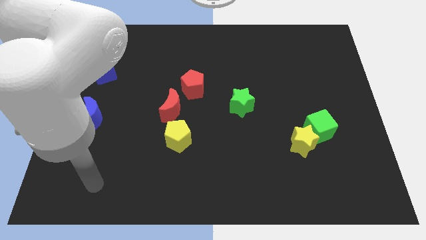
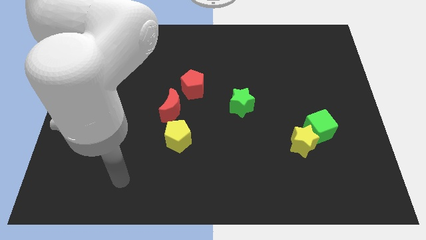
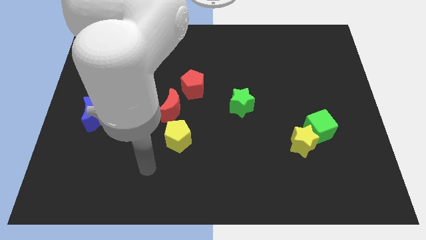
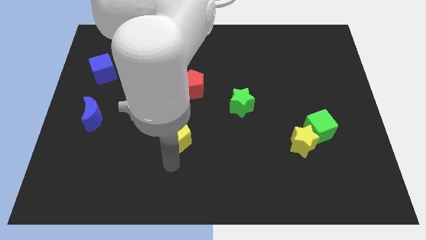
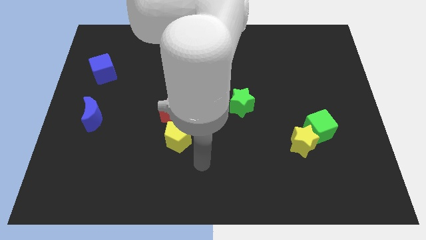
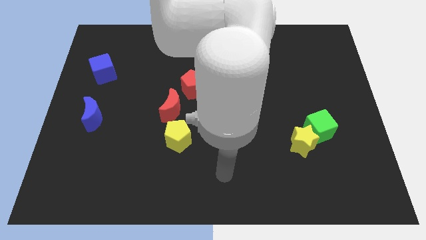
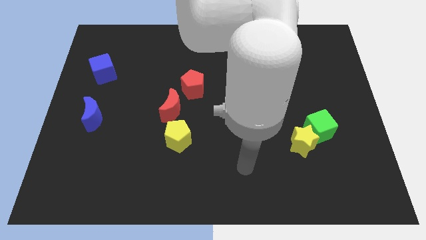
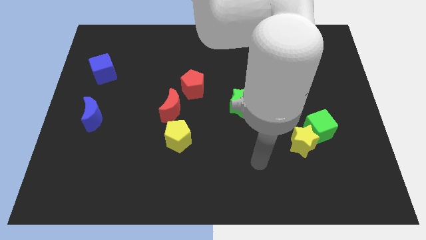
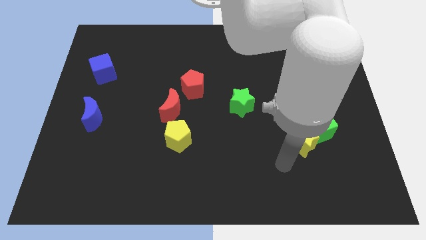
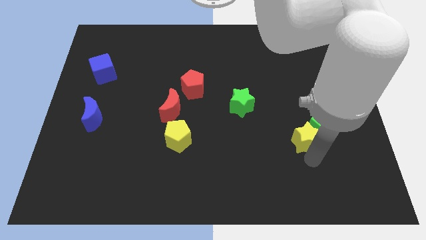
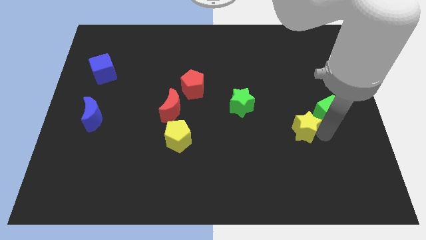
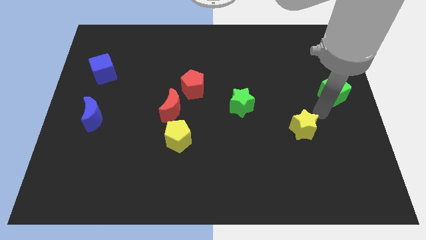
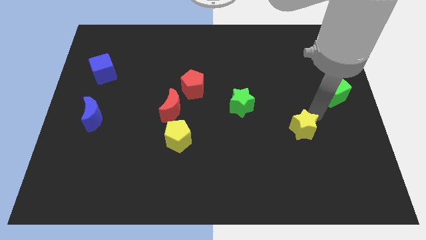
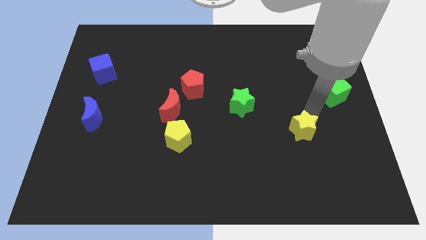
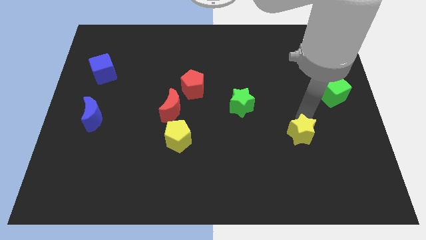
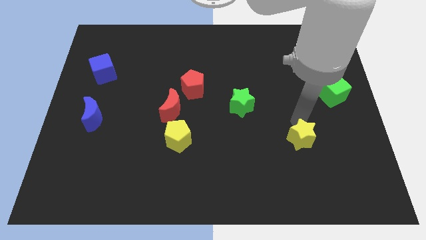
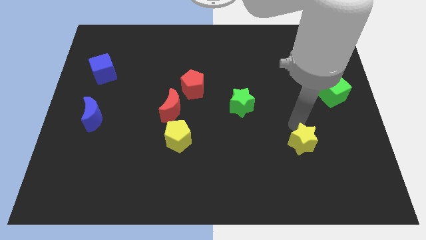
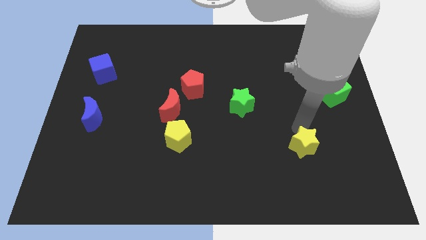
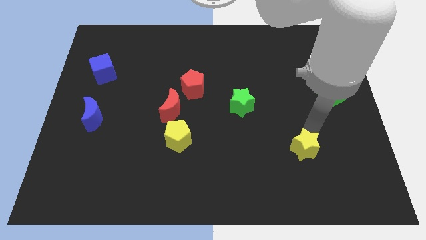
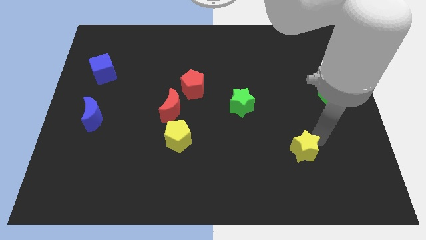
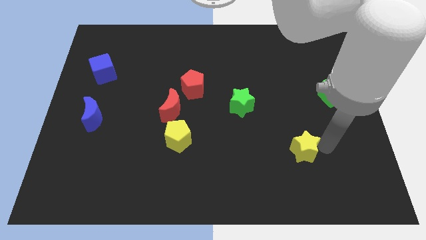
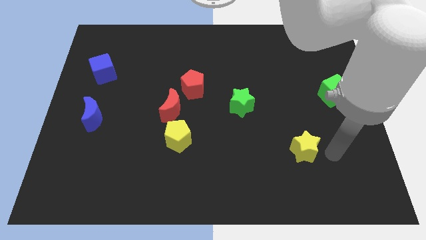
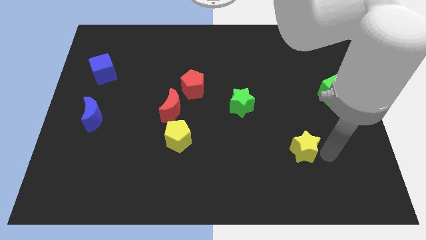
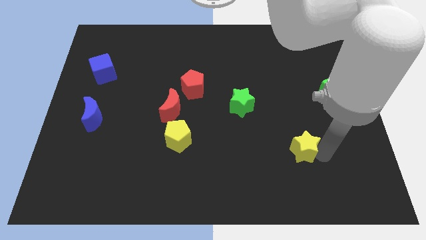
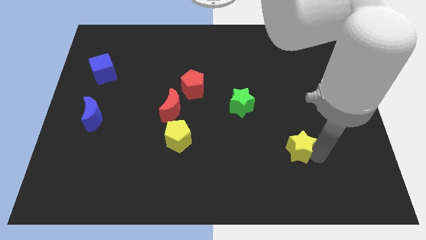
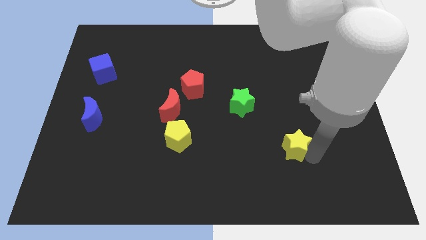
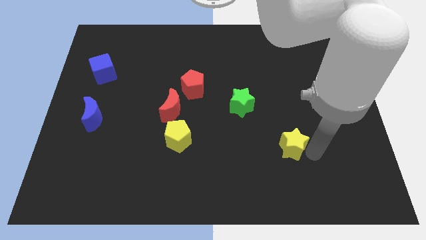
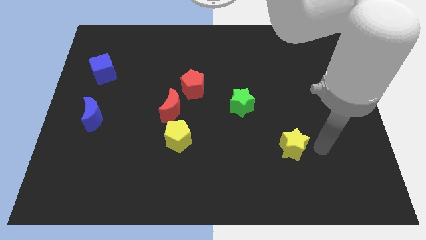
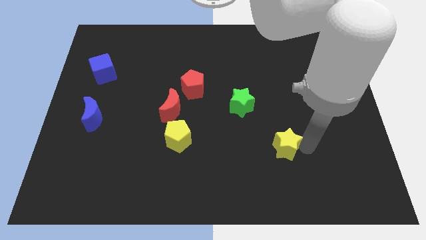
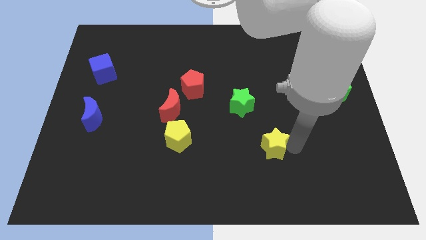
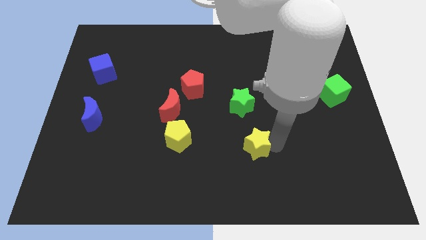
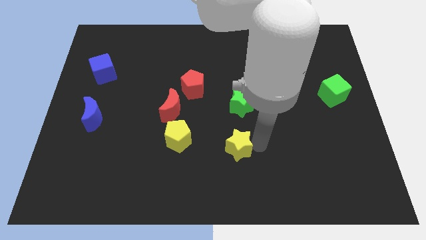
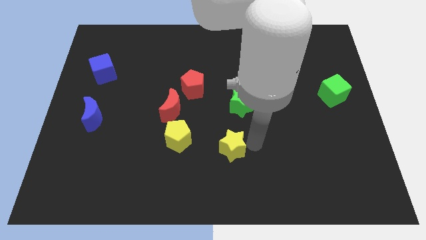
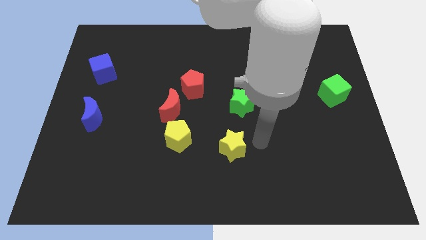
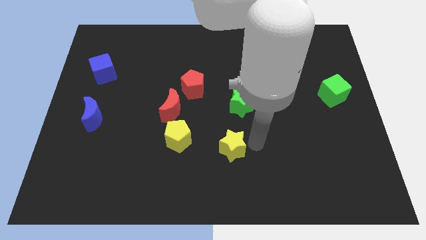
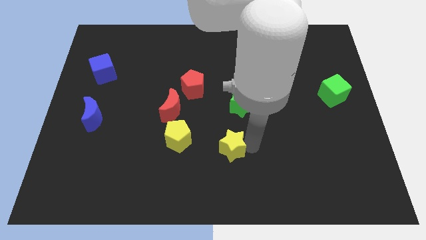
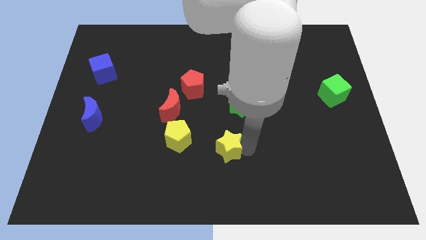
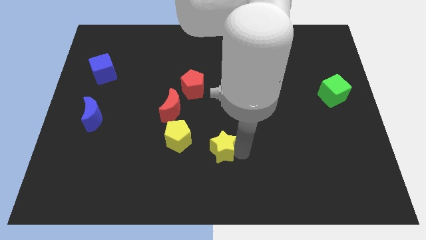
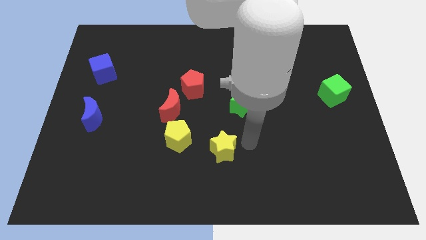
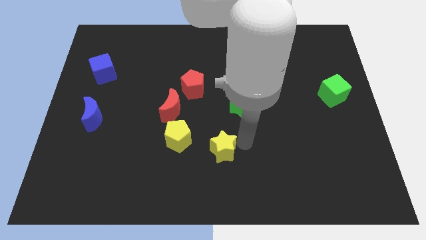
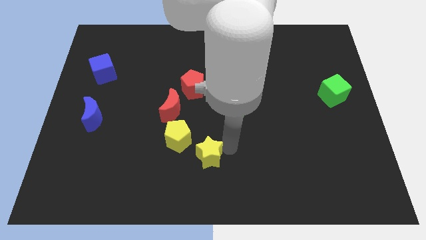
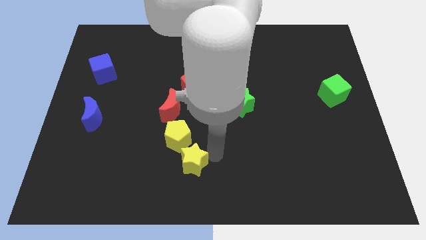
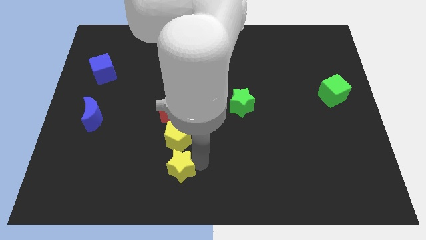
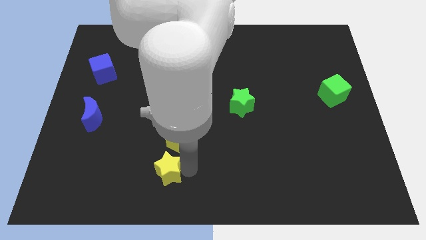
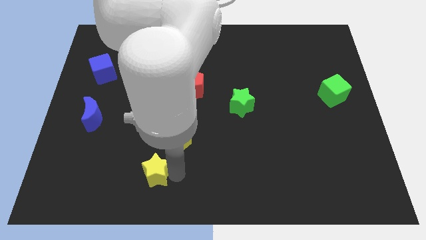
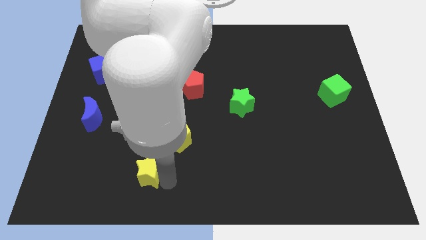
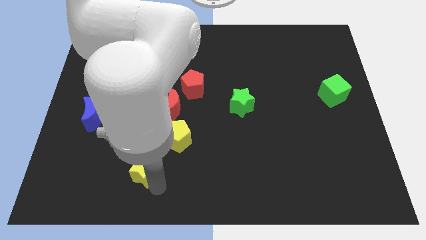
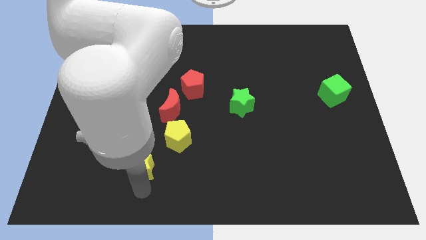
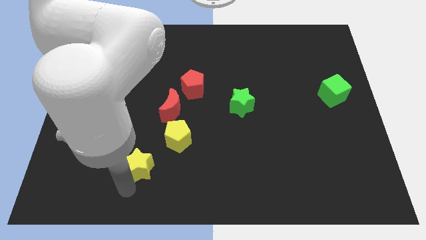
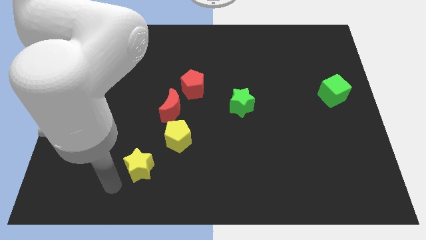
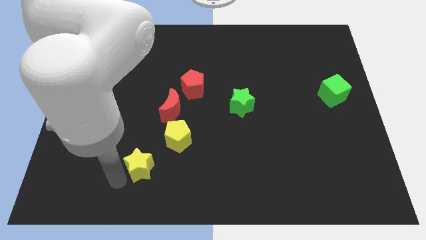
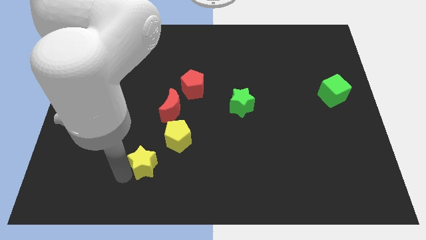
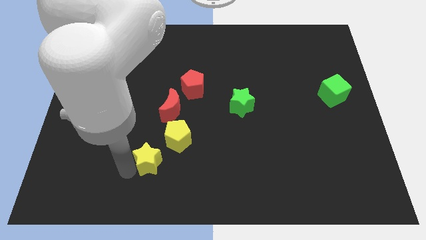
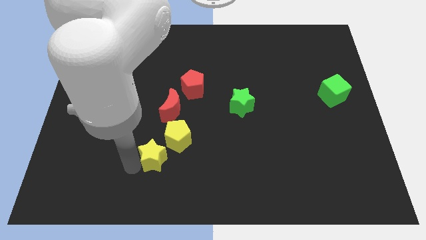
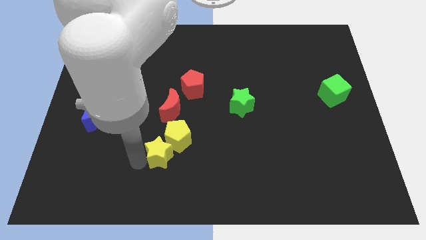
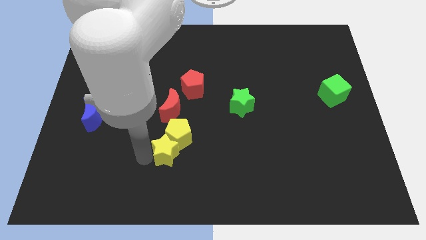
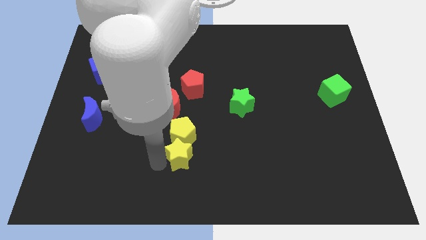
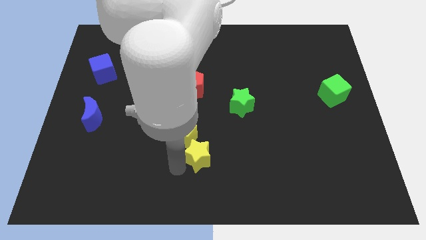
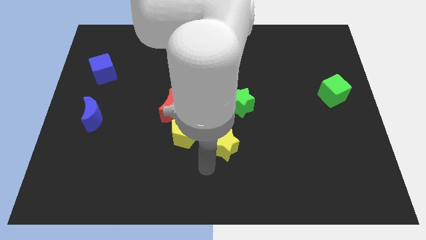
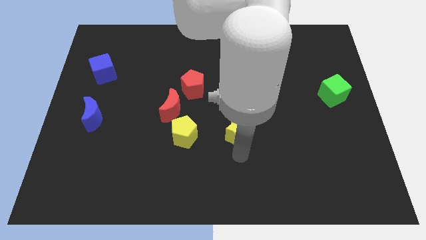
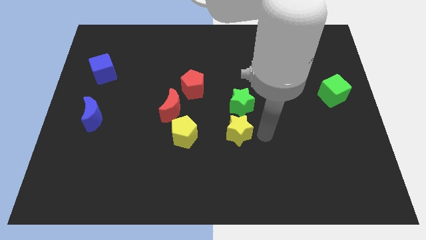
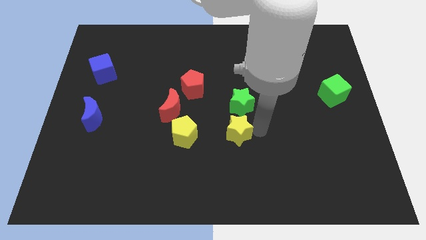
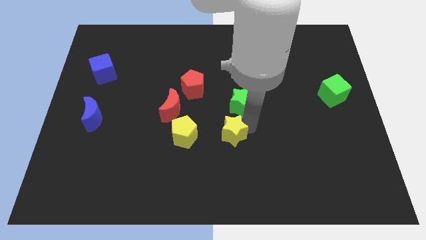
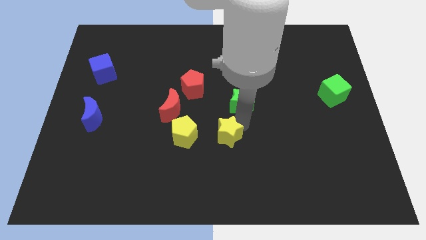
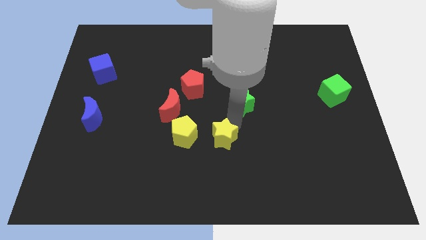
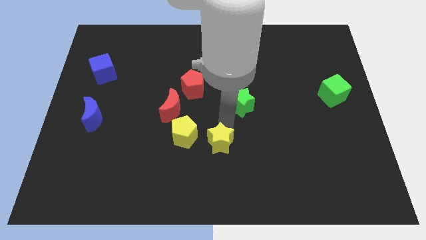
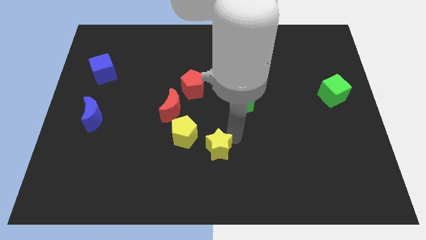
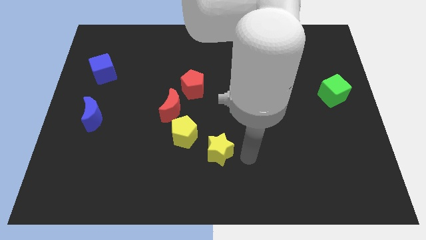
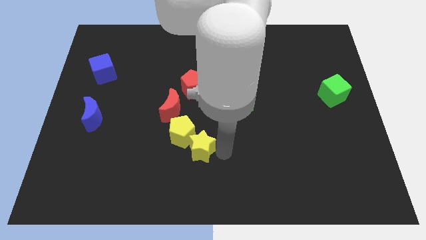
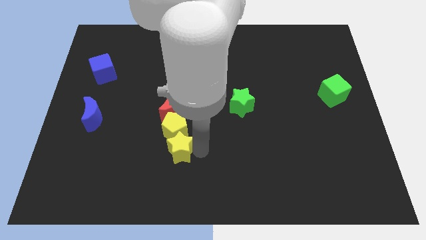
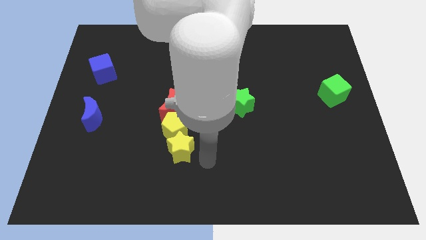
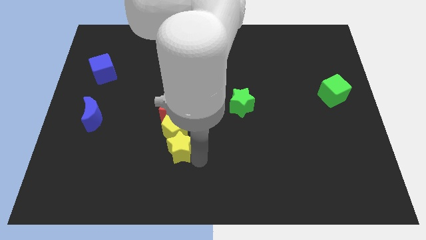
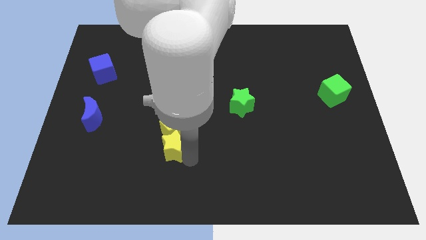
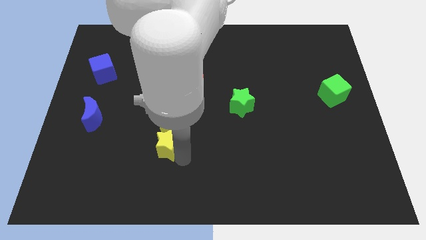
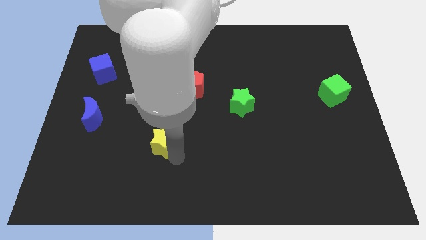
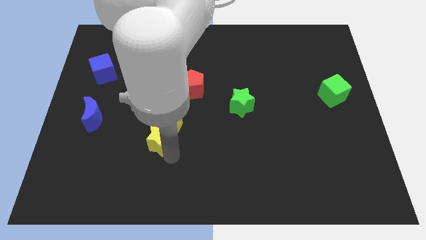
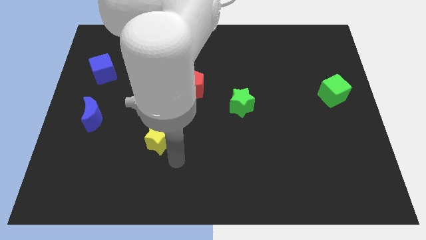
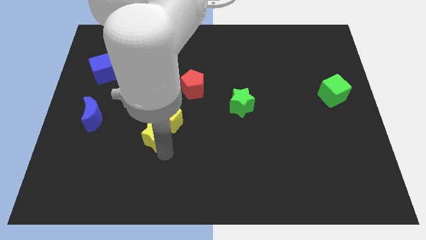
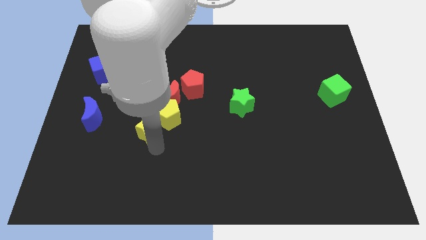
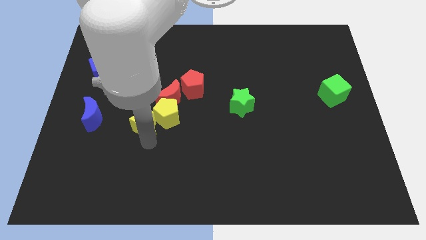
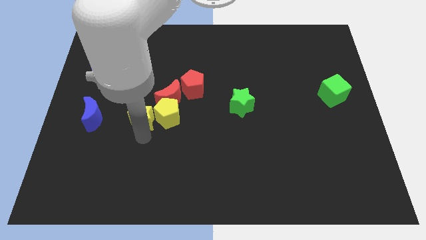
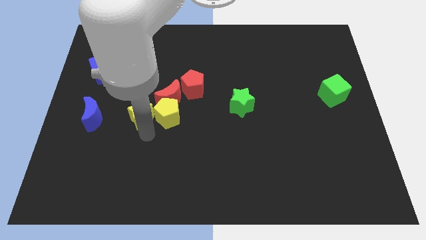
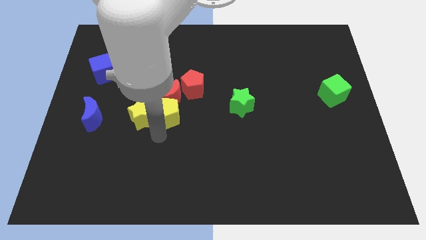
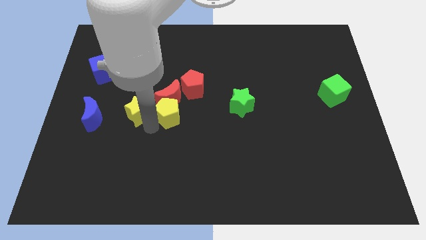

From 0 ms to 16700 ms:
slide the yellow star to the left of the red moon
